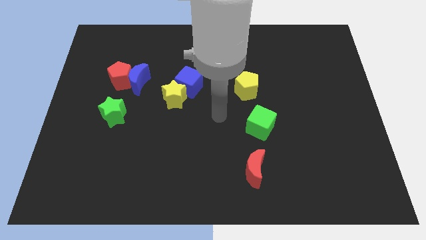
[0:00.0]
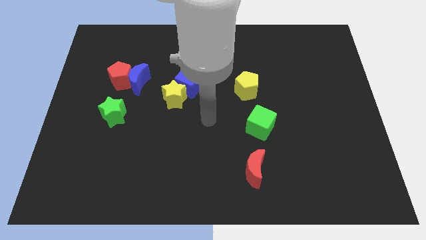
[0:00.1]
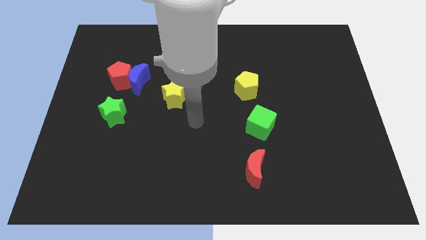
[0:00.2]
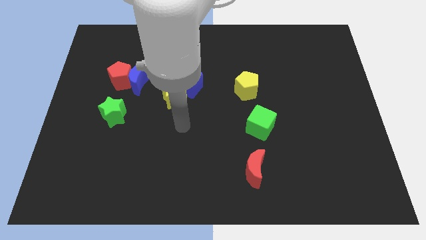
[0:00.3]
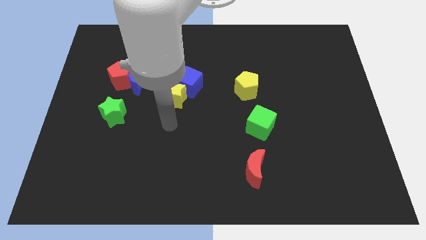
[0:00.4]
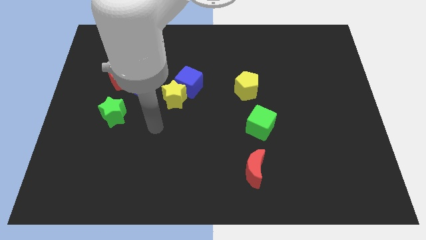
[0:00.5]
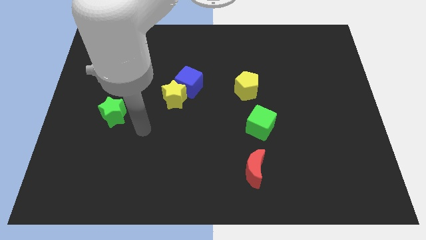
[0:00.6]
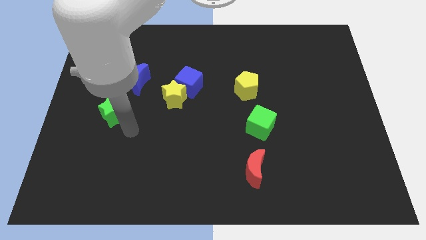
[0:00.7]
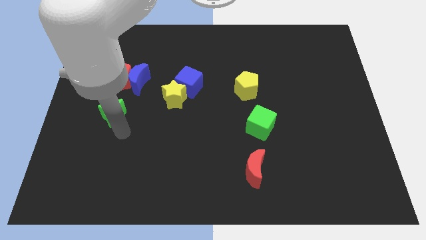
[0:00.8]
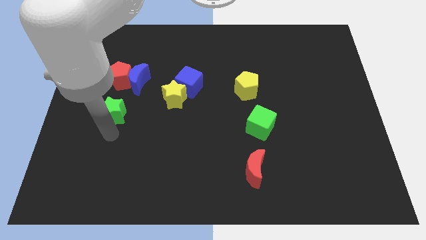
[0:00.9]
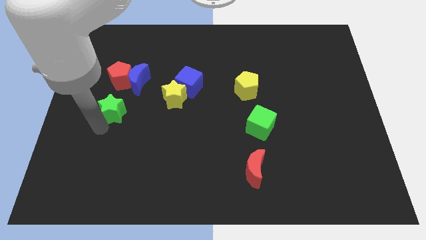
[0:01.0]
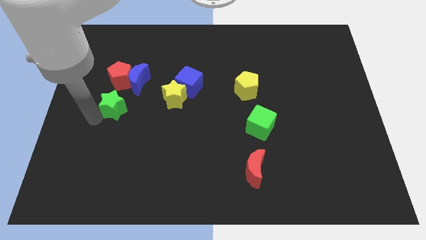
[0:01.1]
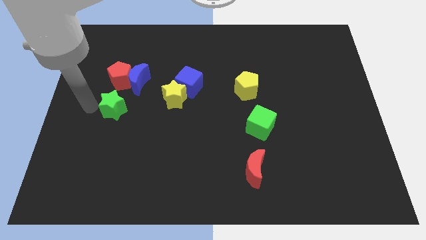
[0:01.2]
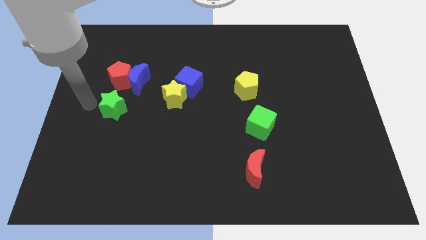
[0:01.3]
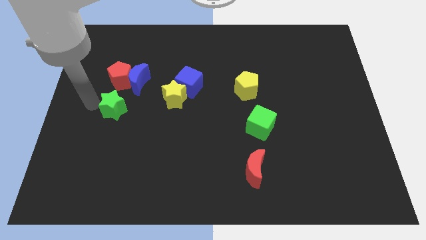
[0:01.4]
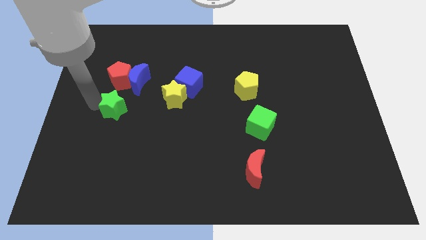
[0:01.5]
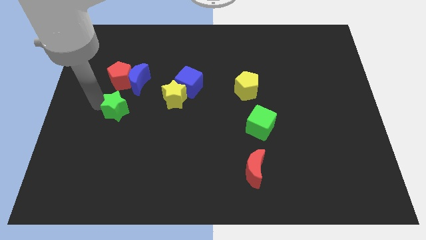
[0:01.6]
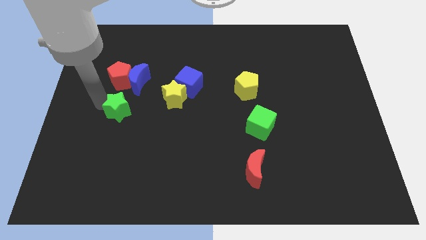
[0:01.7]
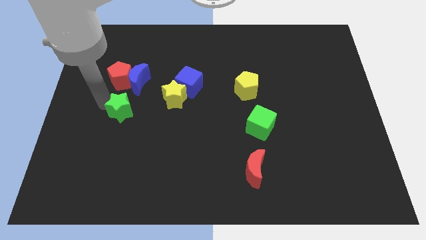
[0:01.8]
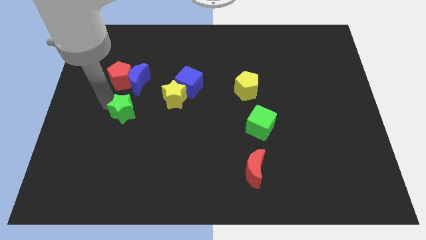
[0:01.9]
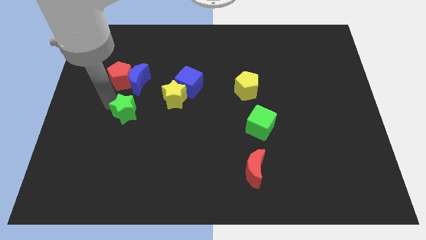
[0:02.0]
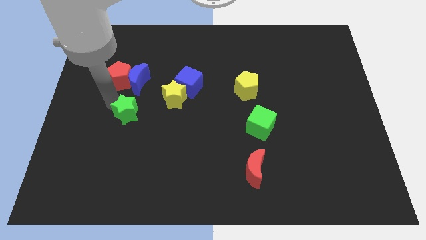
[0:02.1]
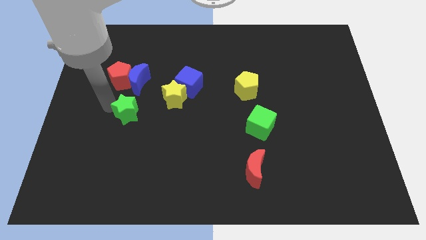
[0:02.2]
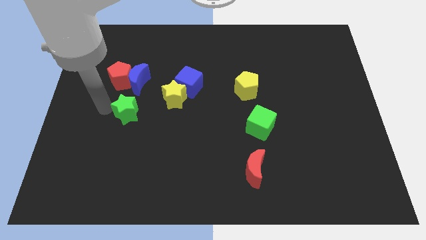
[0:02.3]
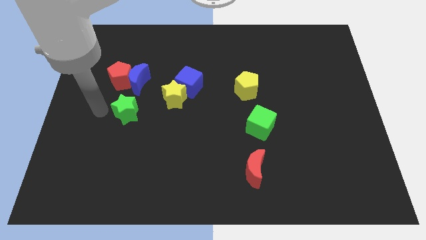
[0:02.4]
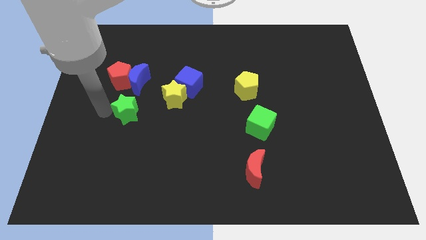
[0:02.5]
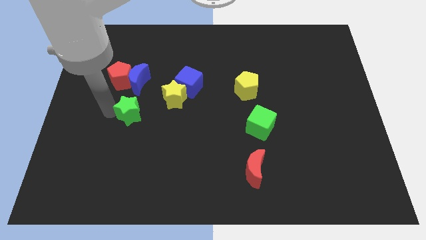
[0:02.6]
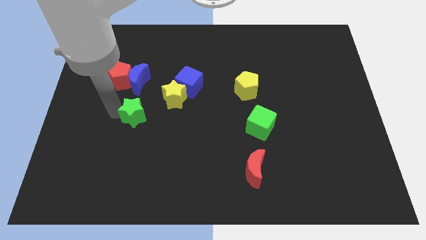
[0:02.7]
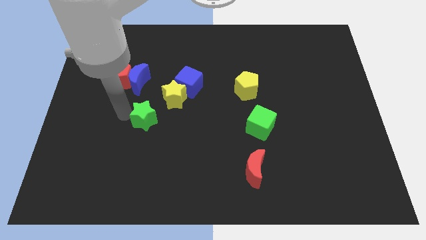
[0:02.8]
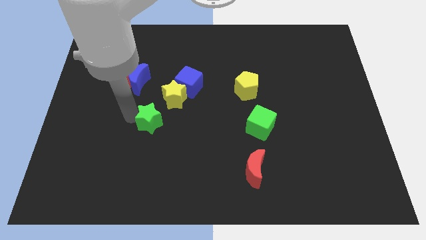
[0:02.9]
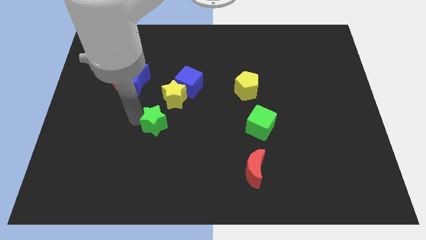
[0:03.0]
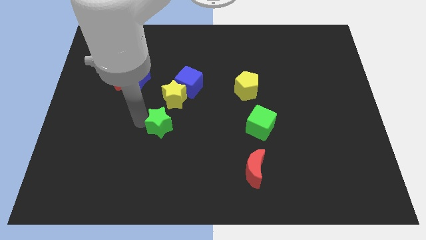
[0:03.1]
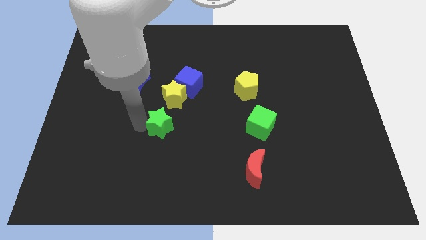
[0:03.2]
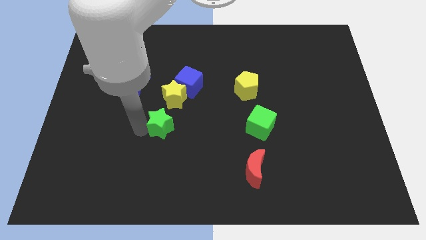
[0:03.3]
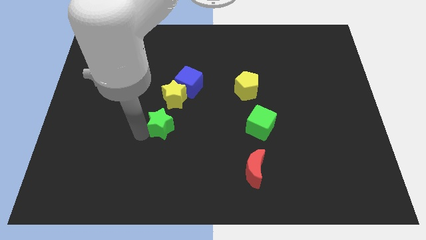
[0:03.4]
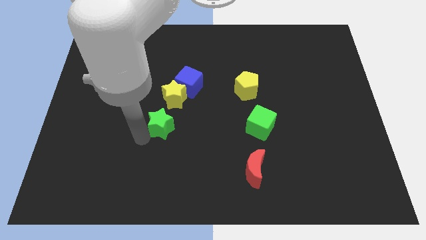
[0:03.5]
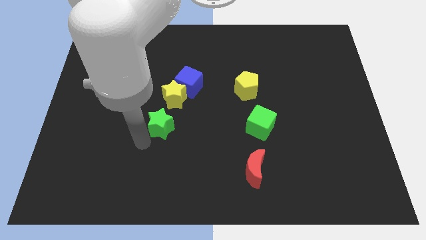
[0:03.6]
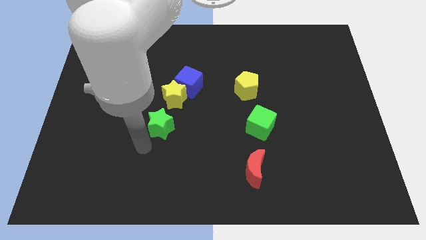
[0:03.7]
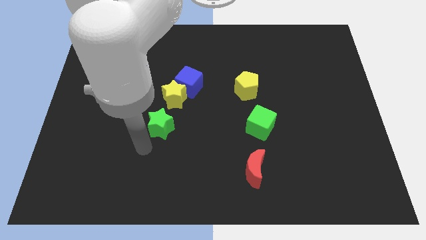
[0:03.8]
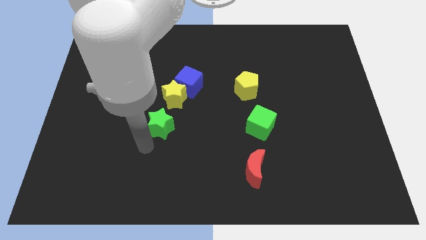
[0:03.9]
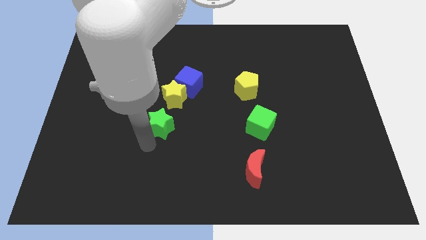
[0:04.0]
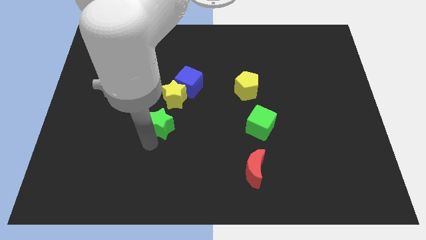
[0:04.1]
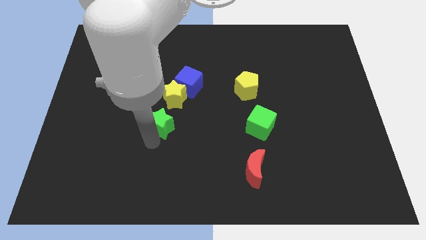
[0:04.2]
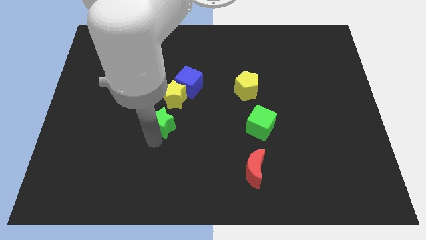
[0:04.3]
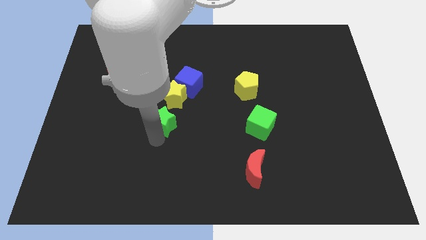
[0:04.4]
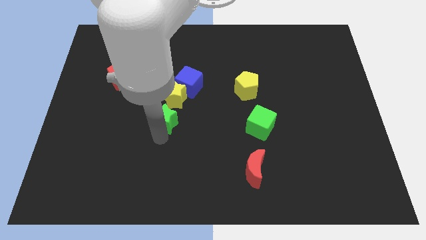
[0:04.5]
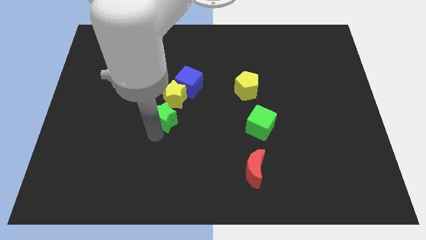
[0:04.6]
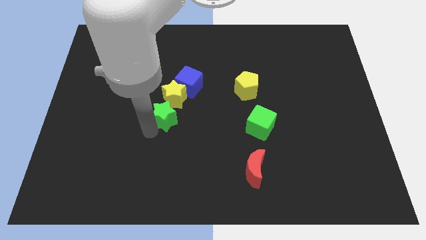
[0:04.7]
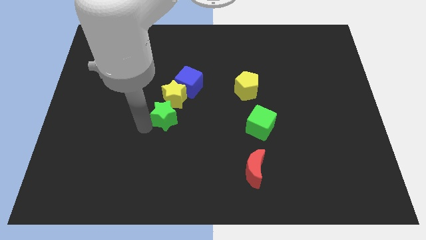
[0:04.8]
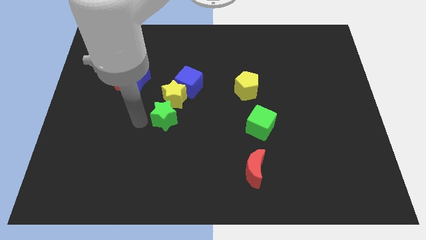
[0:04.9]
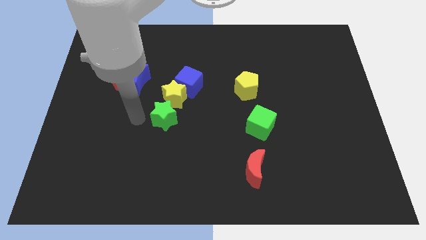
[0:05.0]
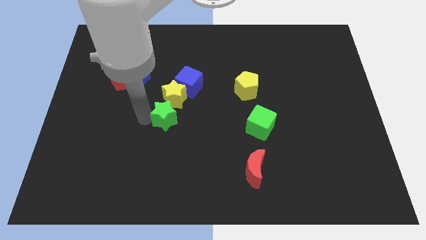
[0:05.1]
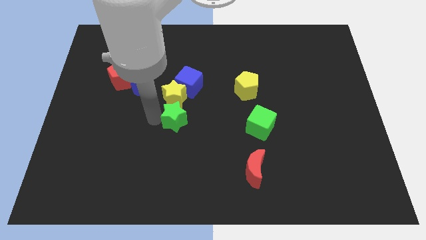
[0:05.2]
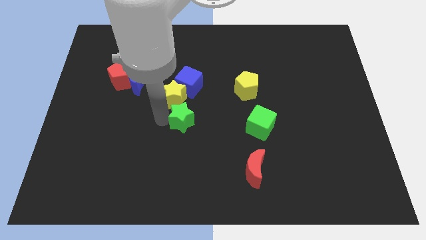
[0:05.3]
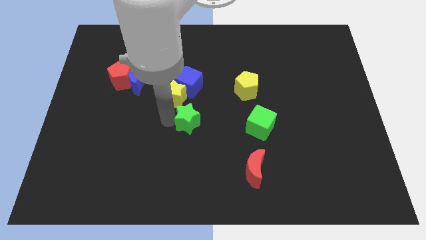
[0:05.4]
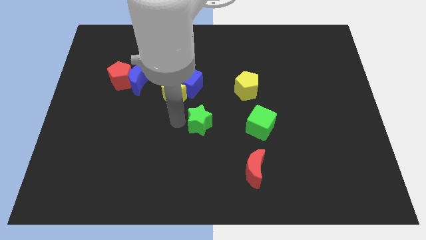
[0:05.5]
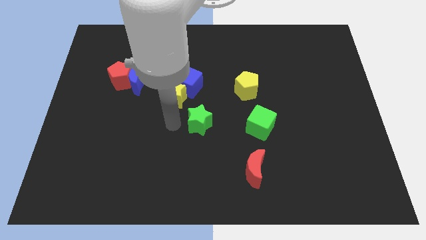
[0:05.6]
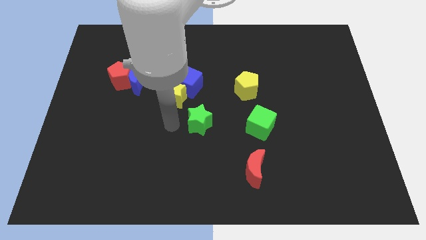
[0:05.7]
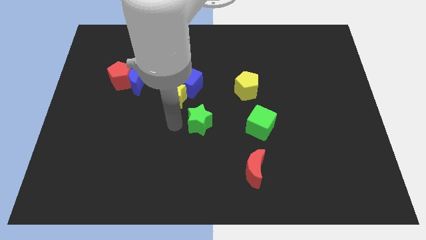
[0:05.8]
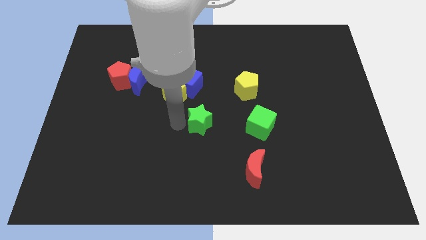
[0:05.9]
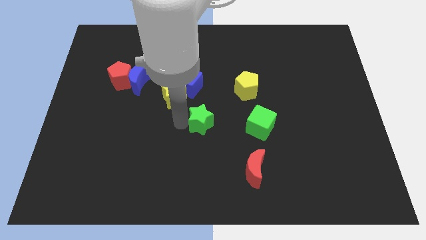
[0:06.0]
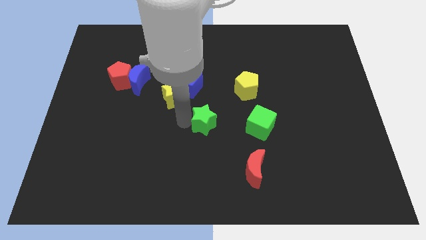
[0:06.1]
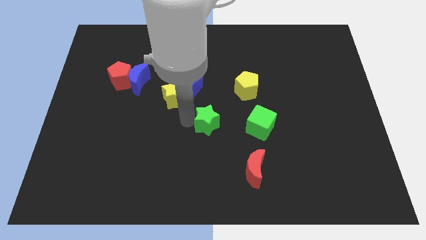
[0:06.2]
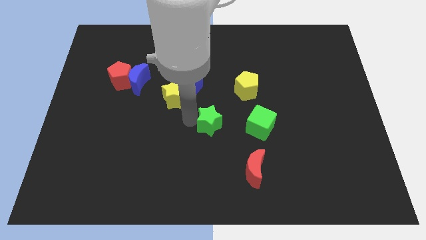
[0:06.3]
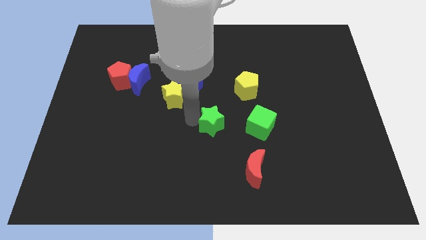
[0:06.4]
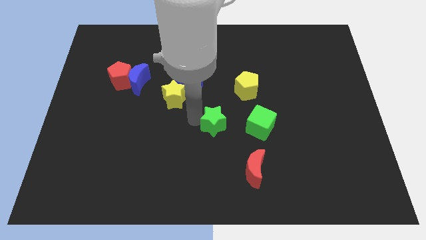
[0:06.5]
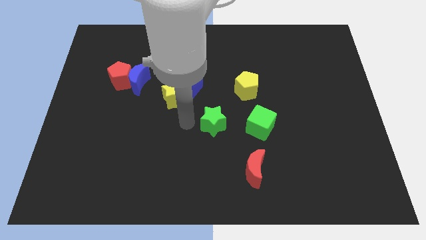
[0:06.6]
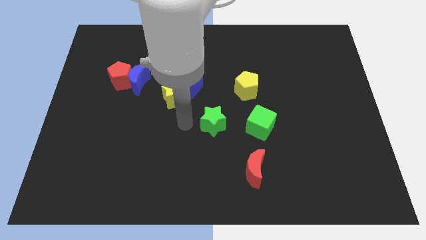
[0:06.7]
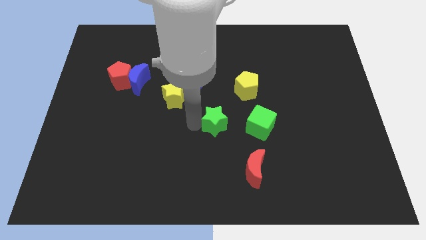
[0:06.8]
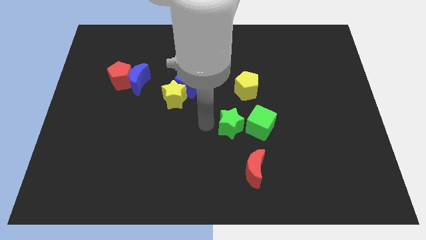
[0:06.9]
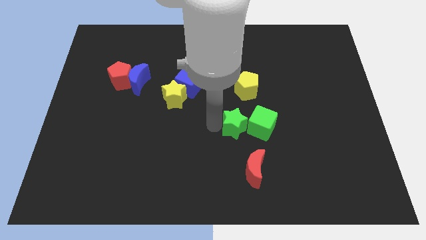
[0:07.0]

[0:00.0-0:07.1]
put the green star towards the green cube
